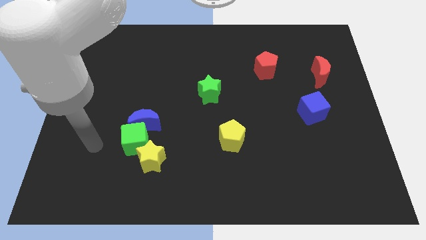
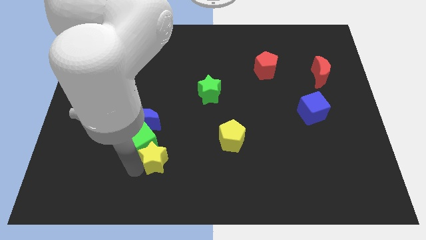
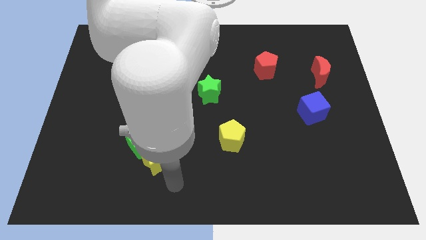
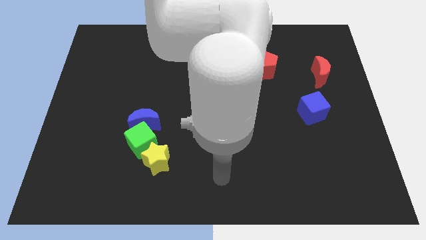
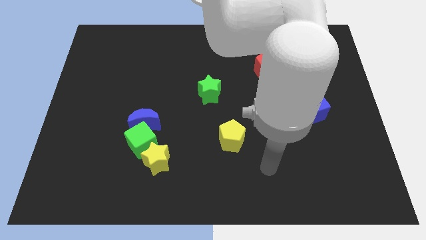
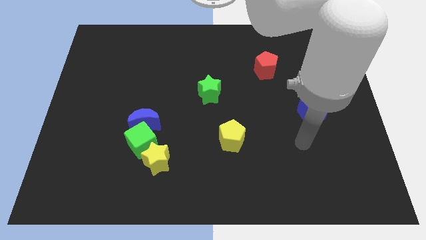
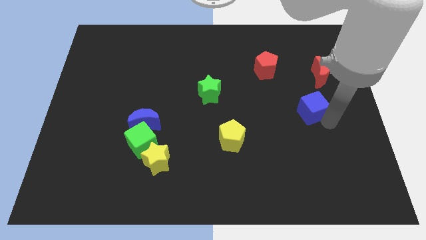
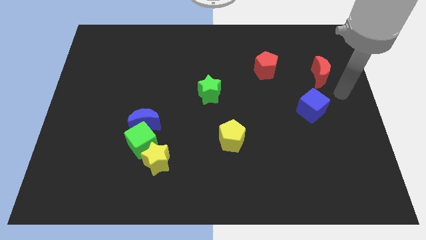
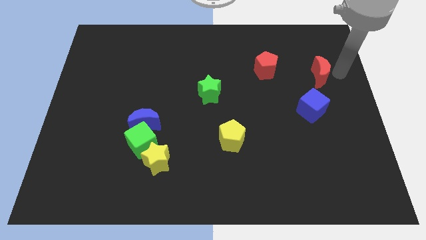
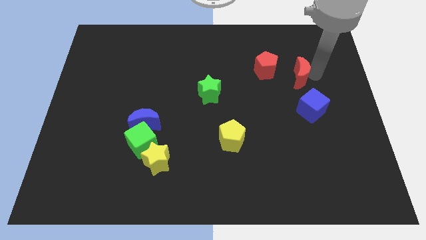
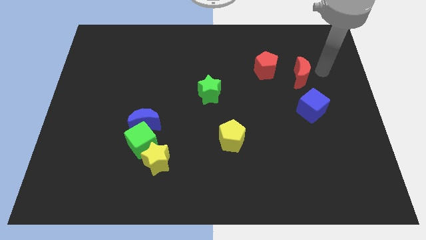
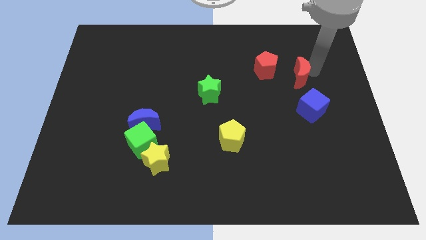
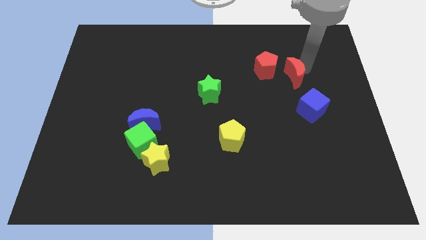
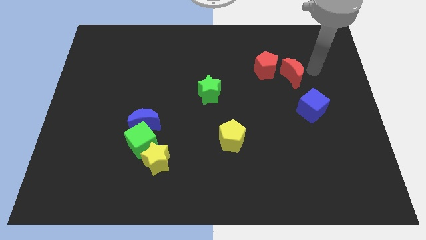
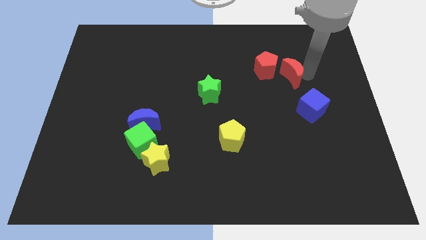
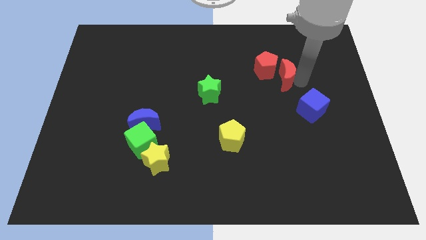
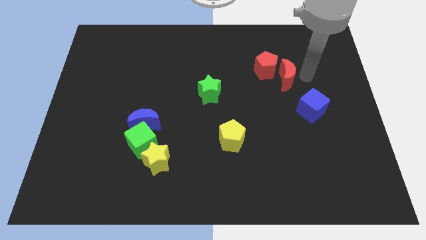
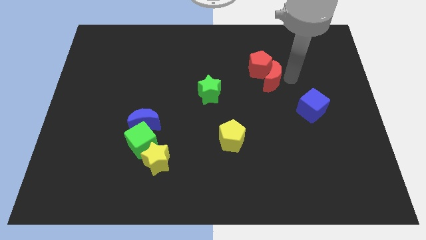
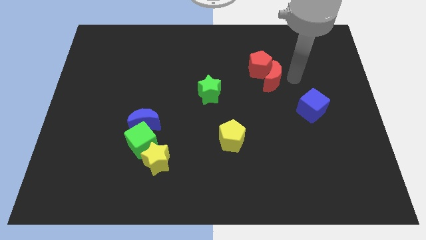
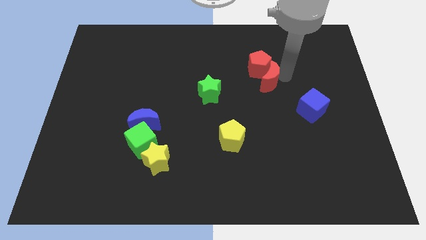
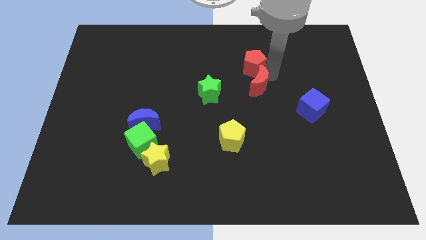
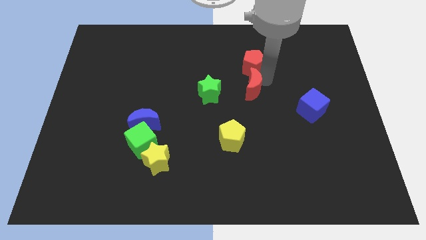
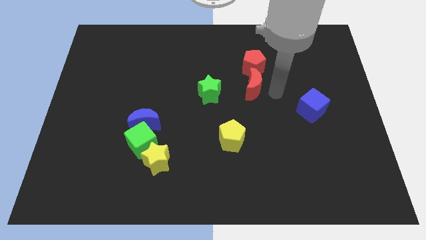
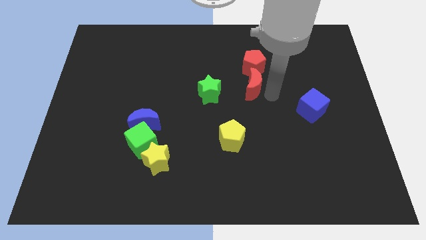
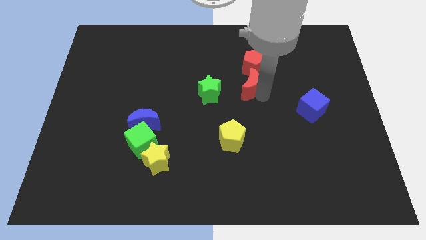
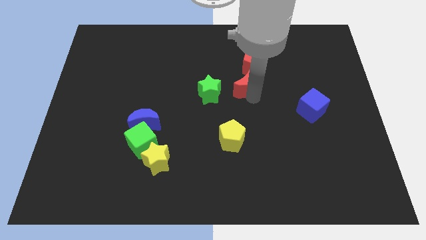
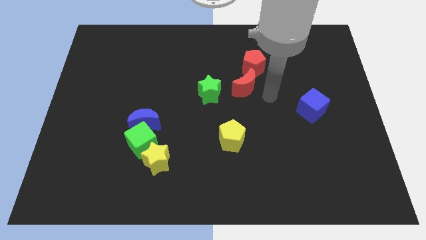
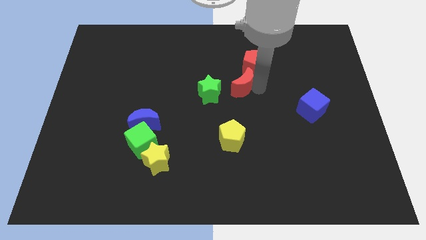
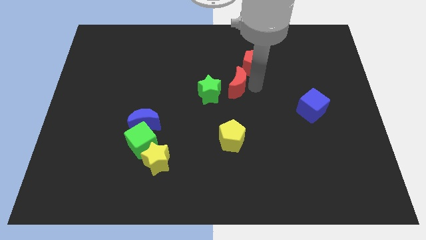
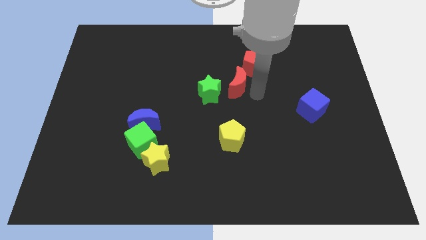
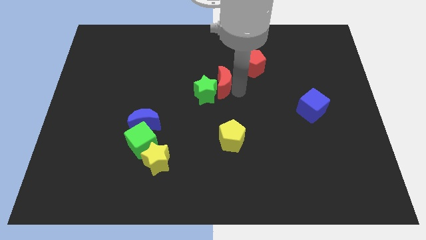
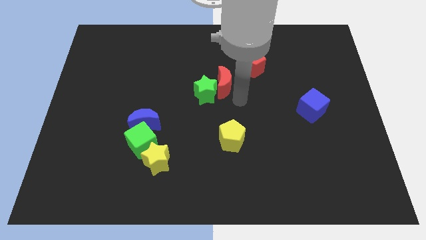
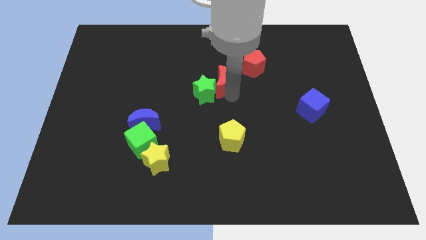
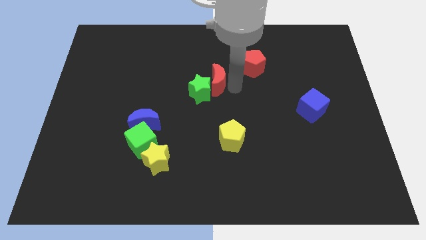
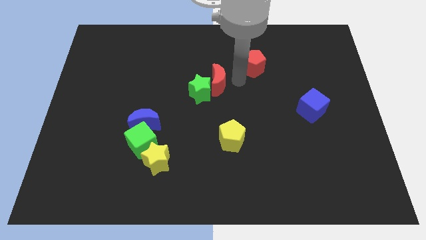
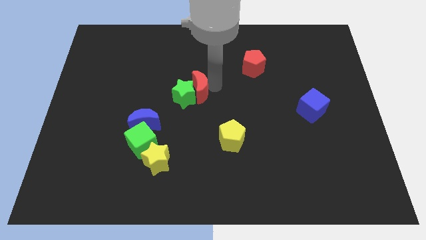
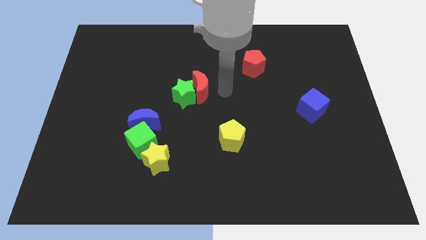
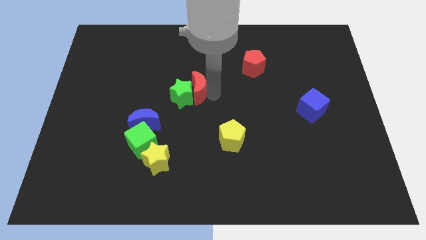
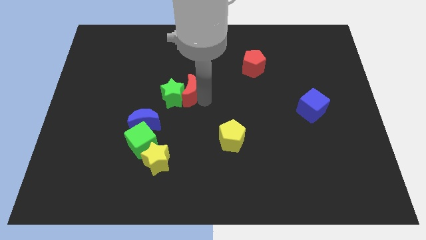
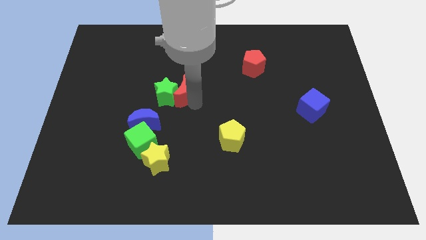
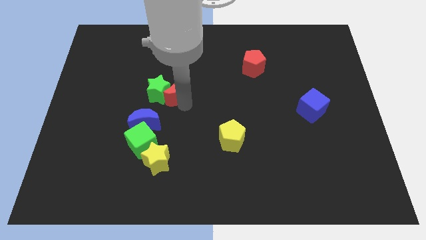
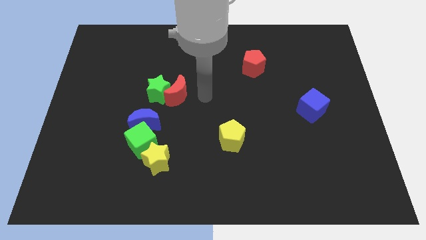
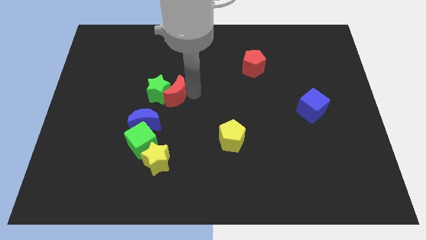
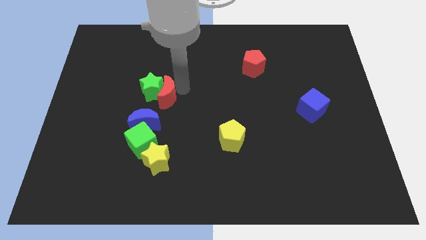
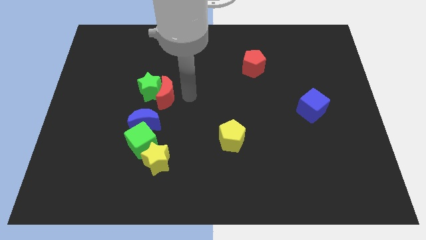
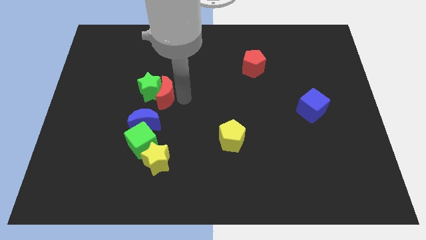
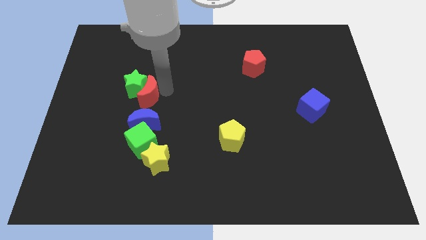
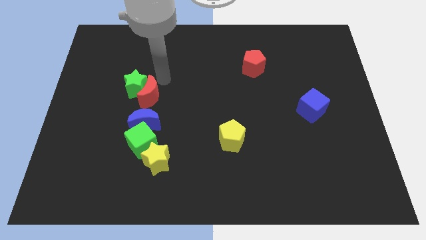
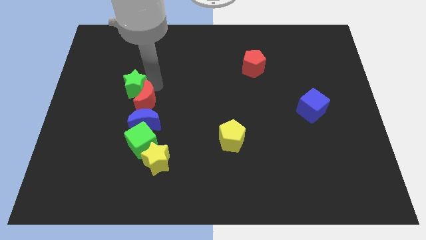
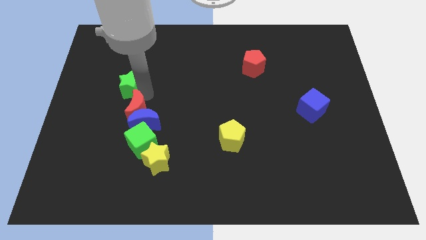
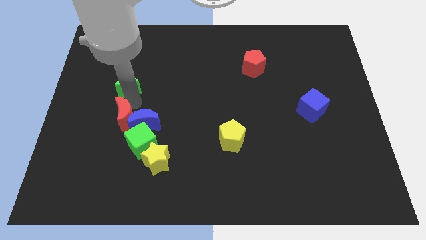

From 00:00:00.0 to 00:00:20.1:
put the red moon to the bottom left side of the blue moon

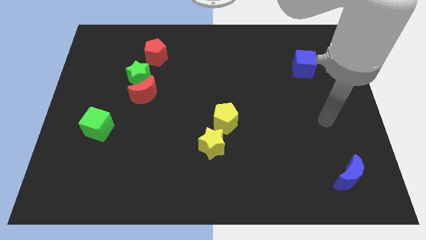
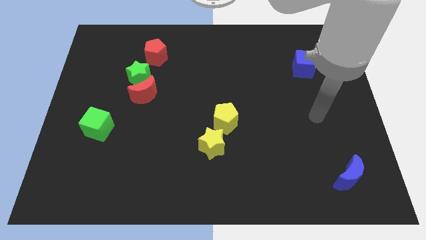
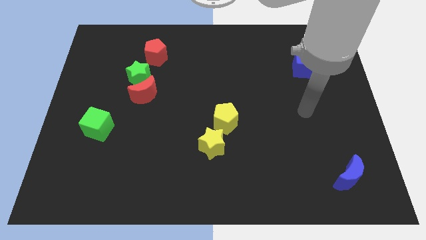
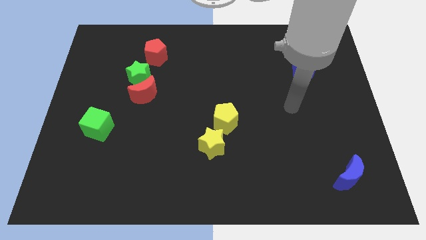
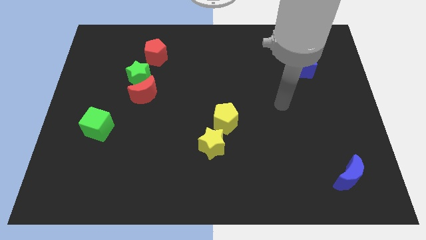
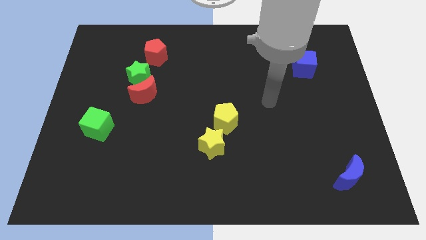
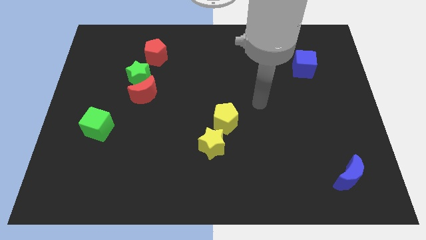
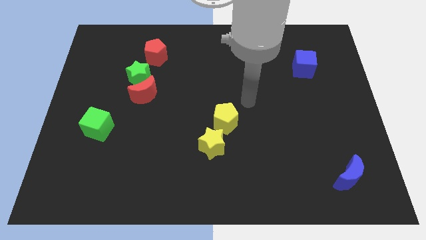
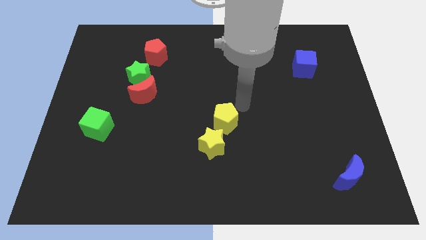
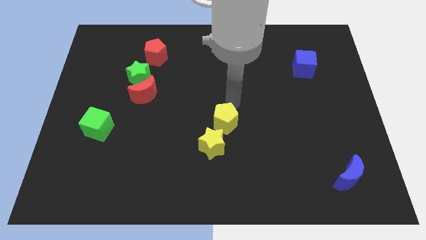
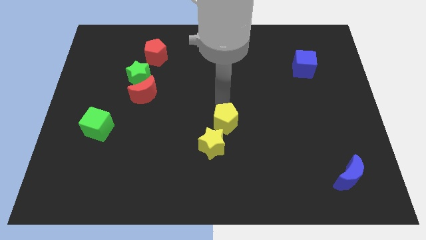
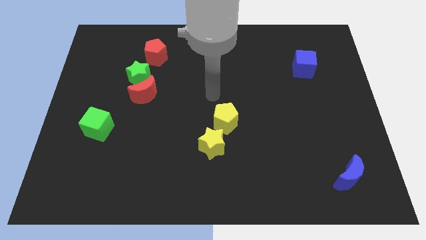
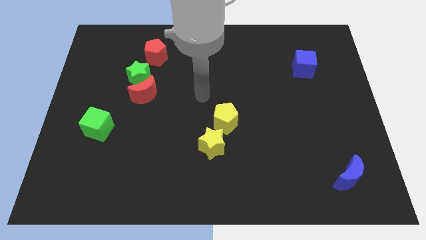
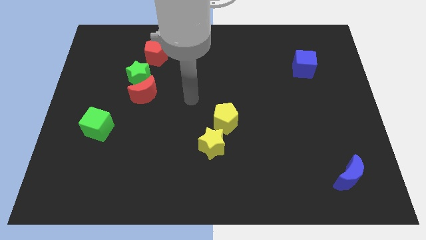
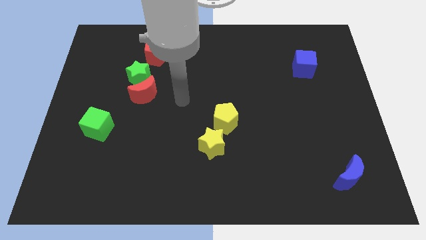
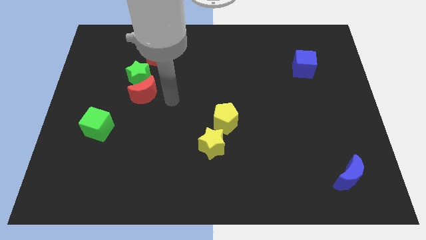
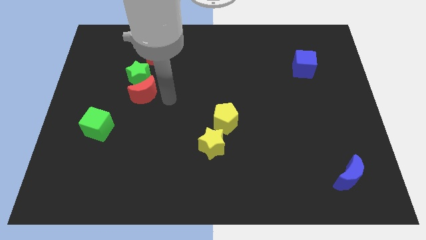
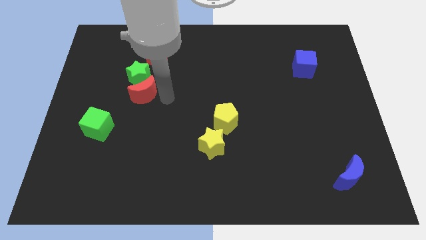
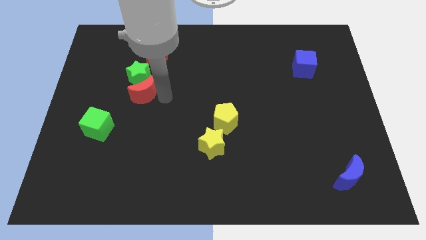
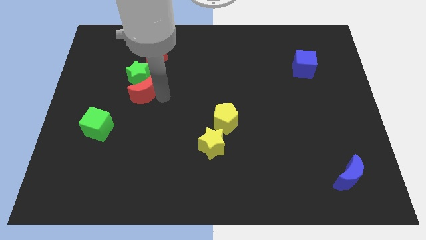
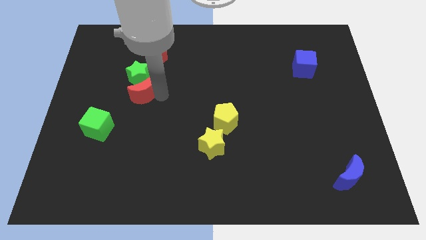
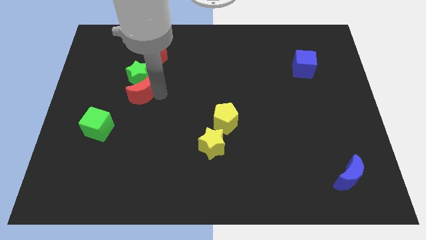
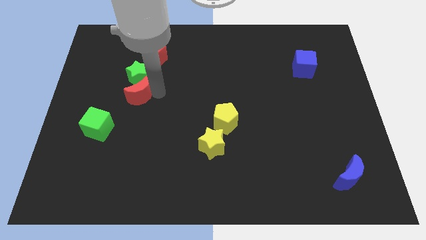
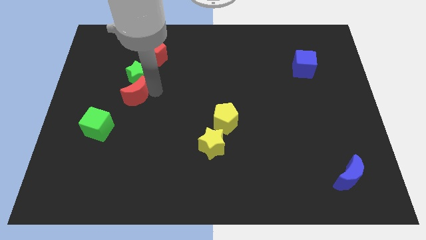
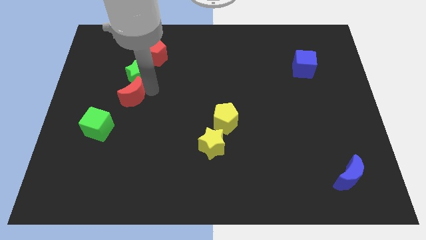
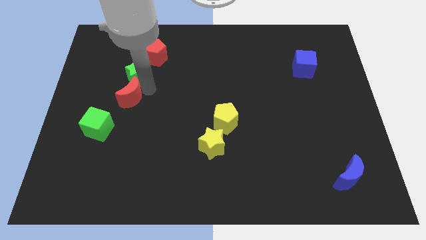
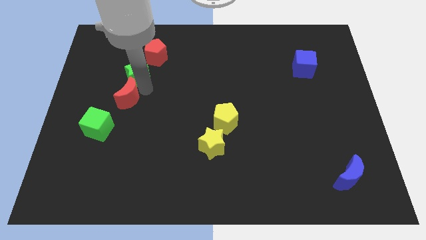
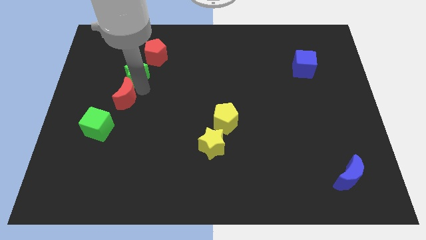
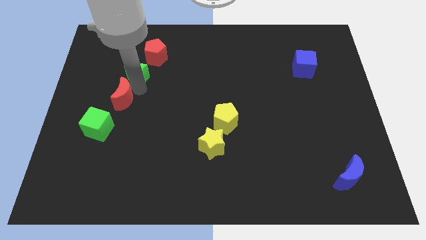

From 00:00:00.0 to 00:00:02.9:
push the red moon to the top side of the green cube
